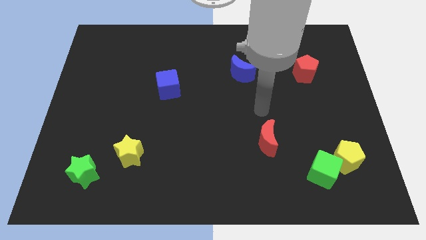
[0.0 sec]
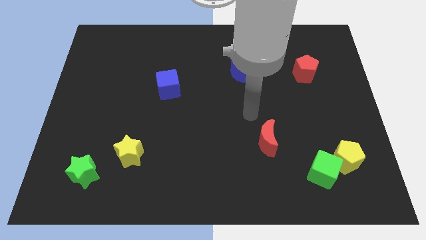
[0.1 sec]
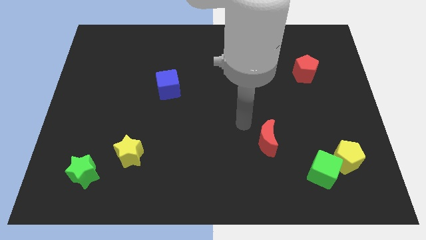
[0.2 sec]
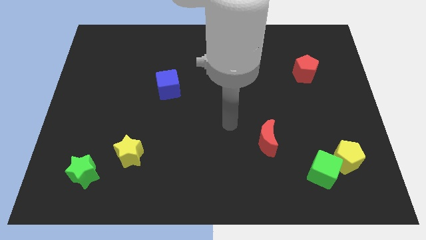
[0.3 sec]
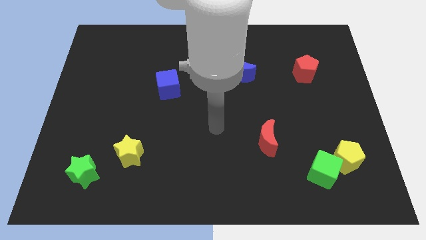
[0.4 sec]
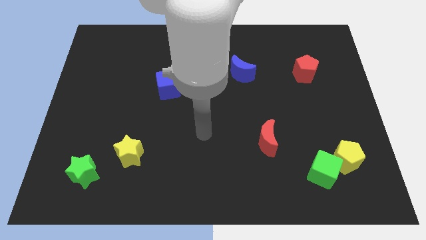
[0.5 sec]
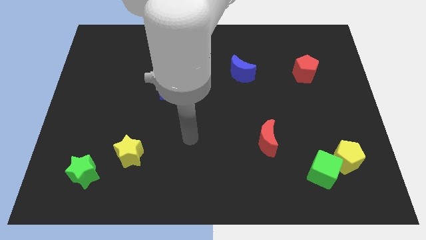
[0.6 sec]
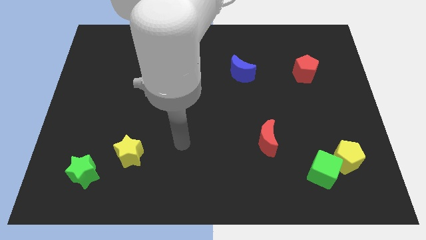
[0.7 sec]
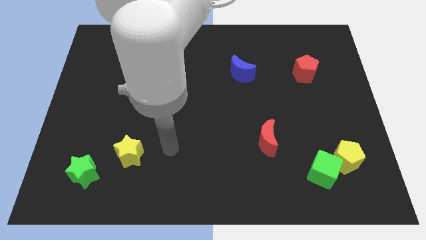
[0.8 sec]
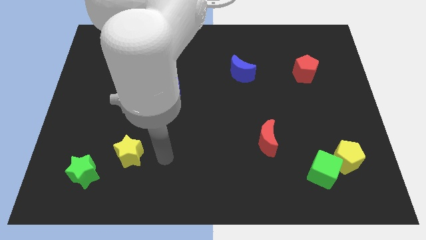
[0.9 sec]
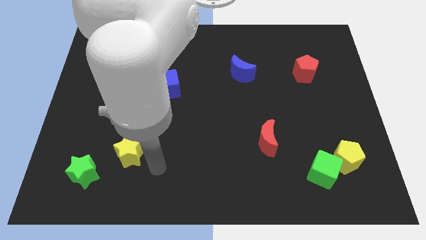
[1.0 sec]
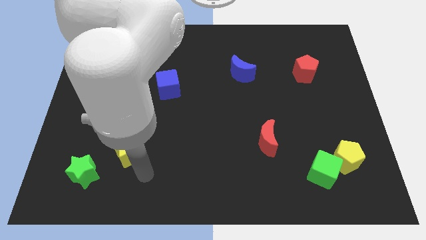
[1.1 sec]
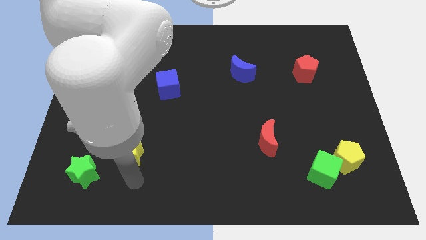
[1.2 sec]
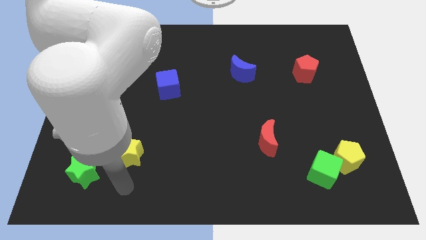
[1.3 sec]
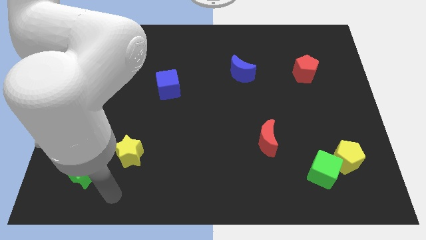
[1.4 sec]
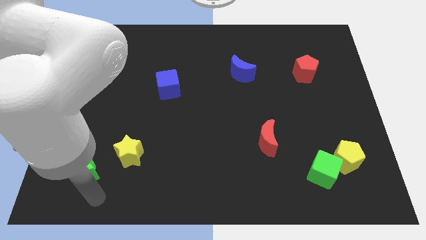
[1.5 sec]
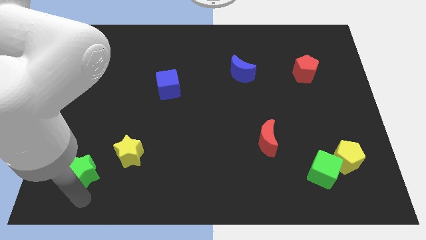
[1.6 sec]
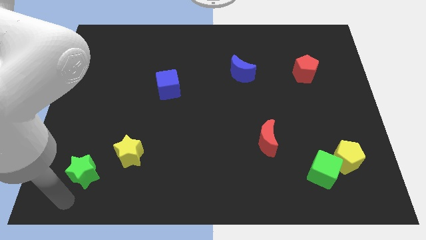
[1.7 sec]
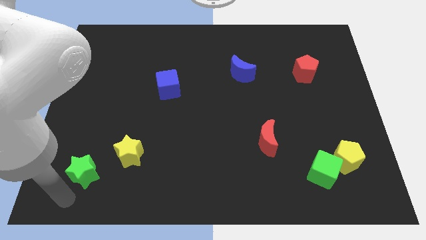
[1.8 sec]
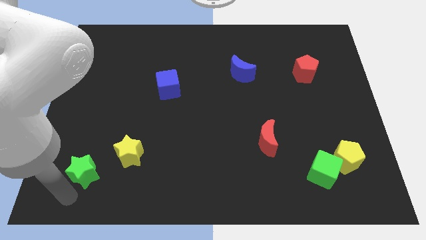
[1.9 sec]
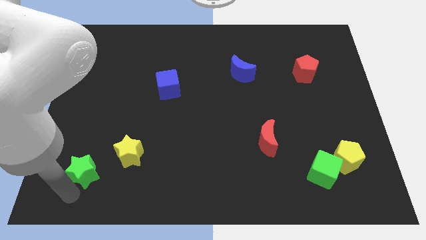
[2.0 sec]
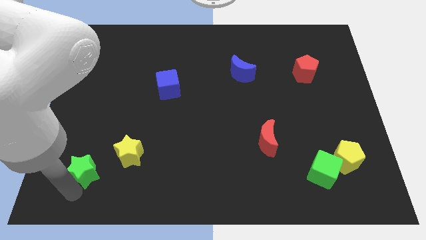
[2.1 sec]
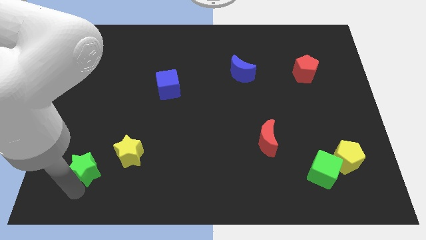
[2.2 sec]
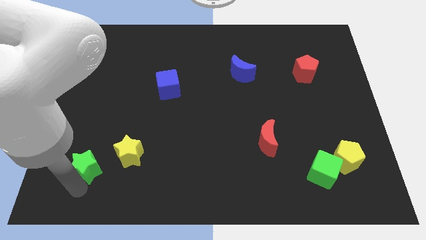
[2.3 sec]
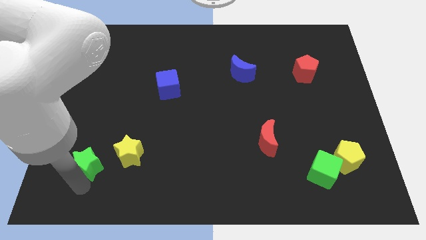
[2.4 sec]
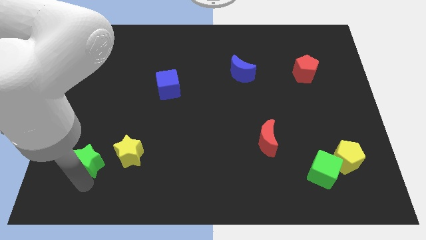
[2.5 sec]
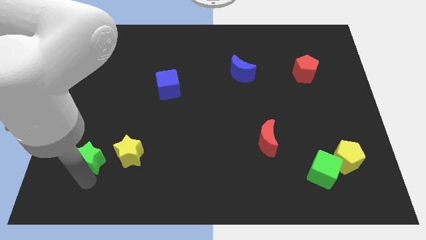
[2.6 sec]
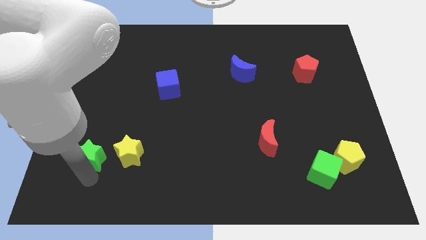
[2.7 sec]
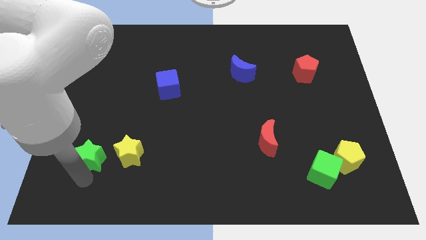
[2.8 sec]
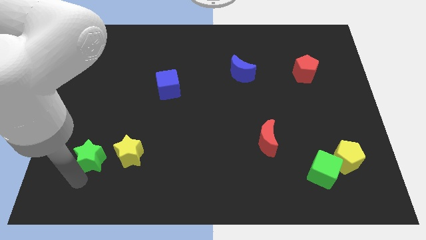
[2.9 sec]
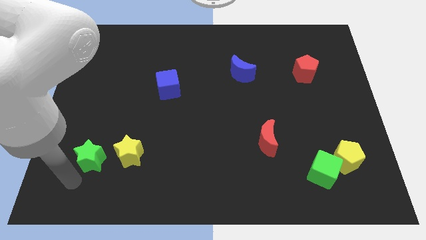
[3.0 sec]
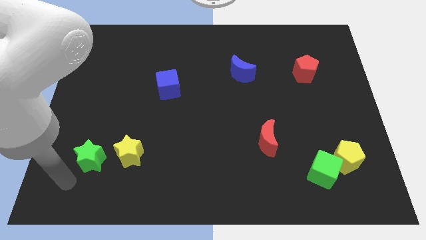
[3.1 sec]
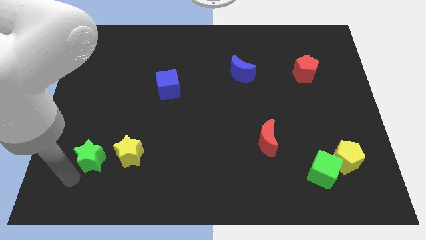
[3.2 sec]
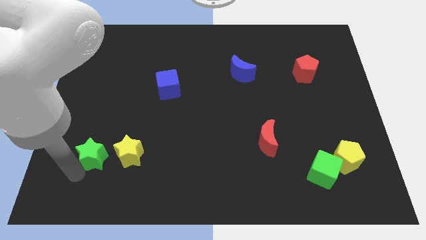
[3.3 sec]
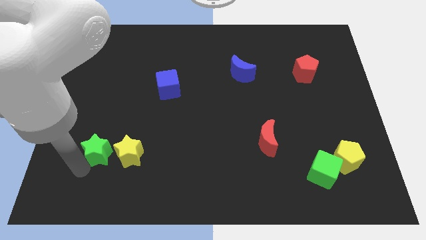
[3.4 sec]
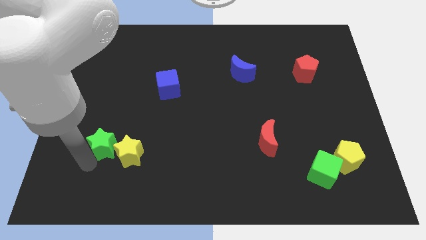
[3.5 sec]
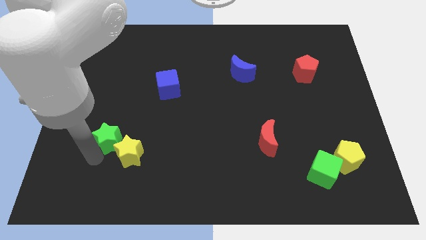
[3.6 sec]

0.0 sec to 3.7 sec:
move the green star up and right diagonally a little

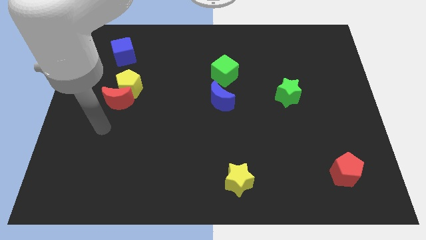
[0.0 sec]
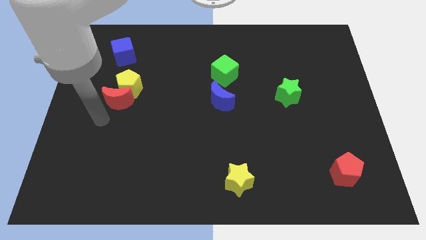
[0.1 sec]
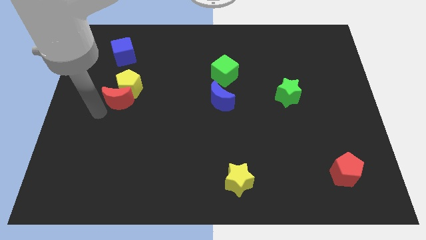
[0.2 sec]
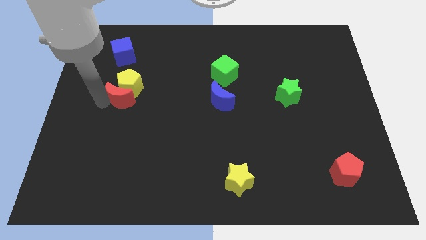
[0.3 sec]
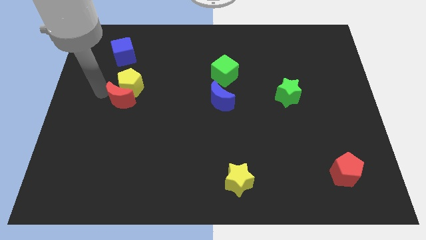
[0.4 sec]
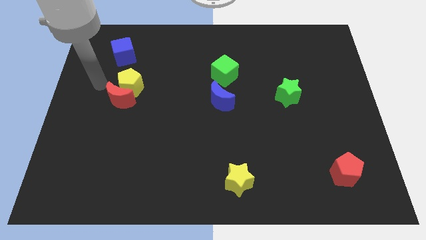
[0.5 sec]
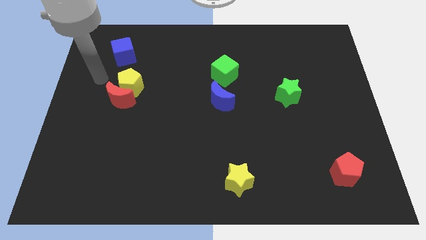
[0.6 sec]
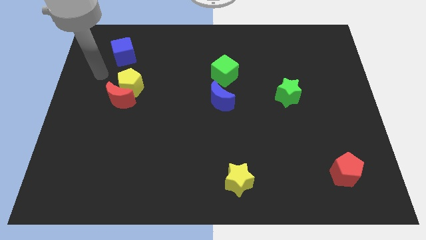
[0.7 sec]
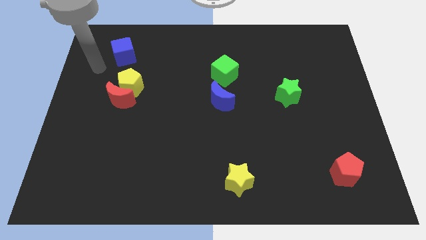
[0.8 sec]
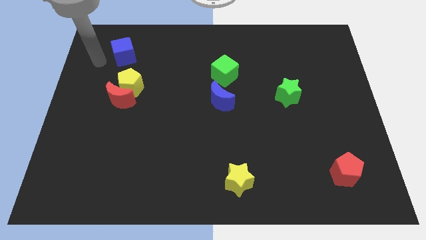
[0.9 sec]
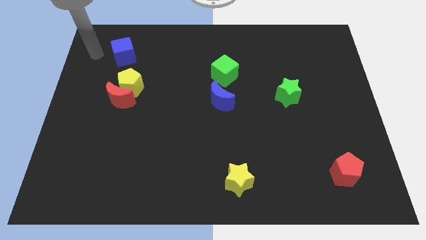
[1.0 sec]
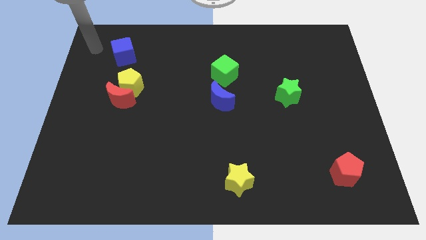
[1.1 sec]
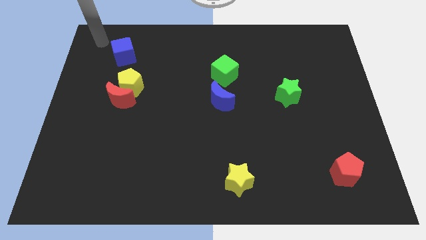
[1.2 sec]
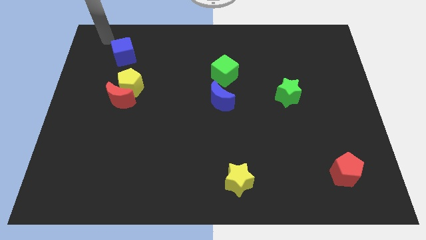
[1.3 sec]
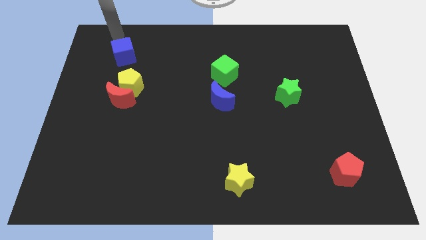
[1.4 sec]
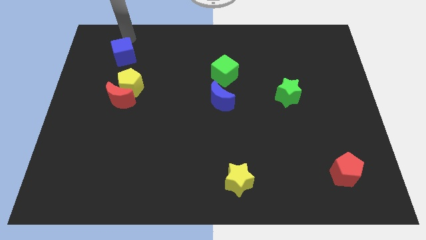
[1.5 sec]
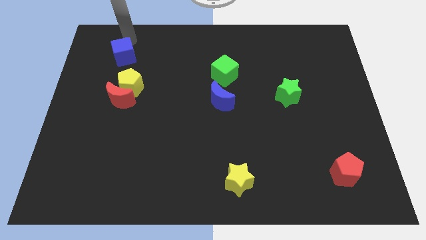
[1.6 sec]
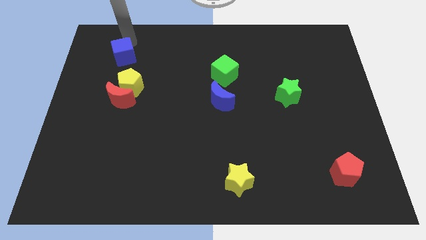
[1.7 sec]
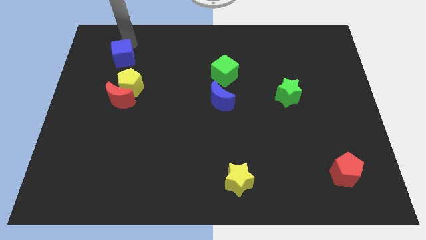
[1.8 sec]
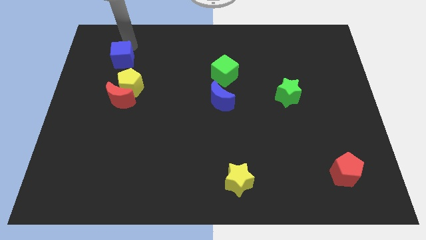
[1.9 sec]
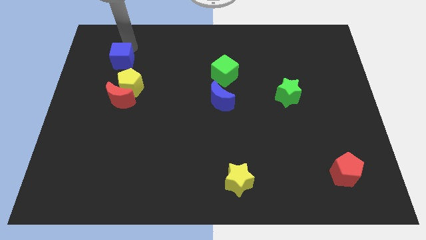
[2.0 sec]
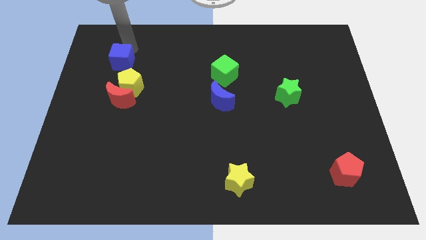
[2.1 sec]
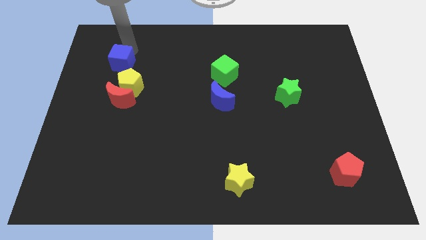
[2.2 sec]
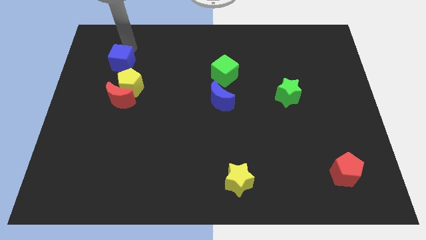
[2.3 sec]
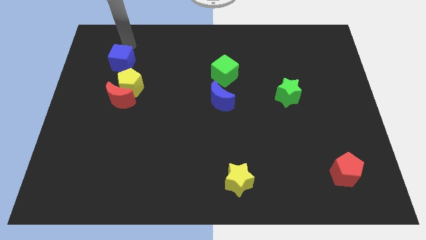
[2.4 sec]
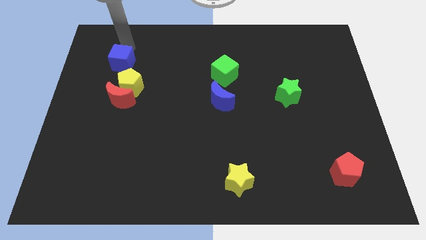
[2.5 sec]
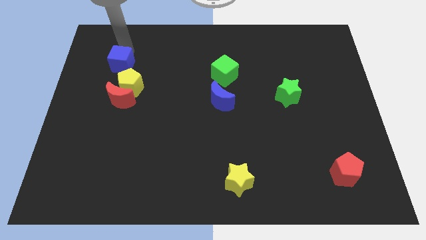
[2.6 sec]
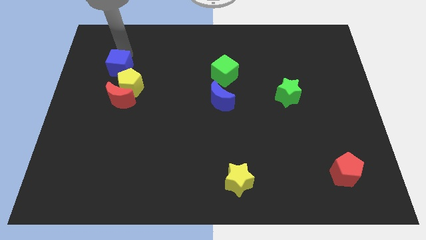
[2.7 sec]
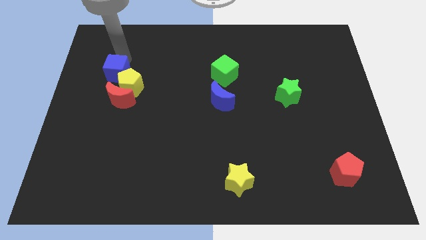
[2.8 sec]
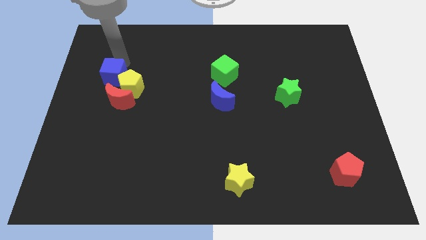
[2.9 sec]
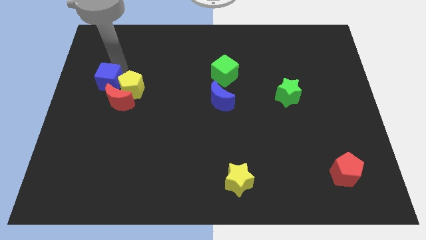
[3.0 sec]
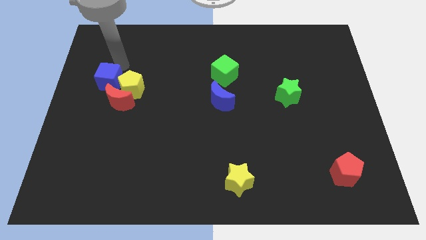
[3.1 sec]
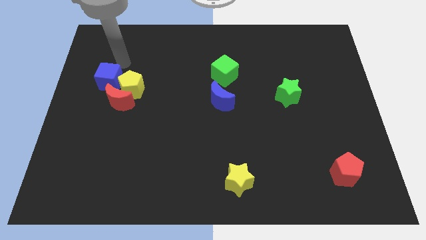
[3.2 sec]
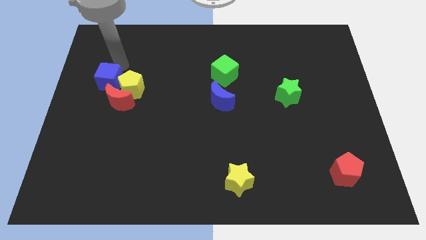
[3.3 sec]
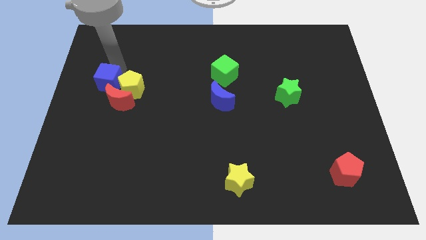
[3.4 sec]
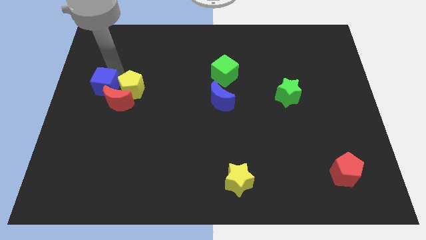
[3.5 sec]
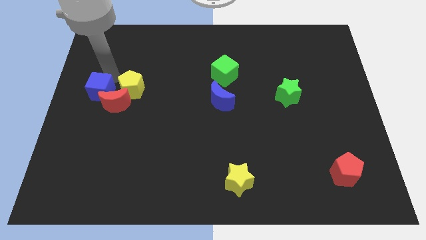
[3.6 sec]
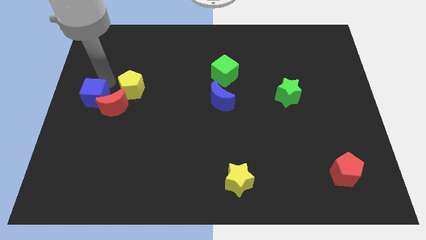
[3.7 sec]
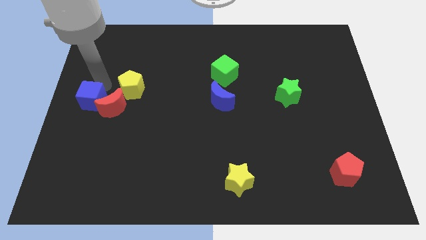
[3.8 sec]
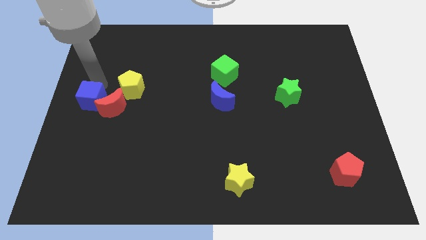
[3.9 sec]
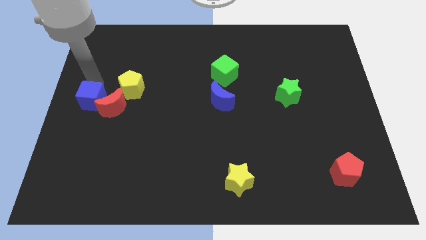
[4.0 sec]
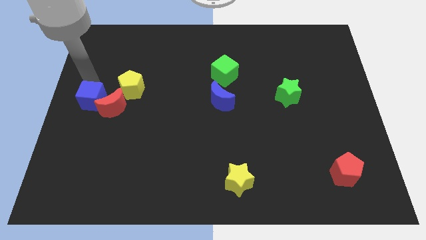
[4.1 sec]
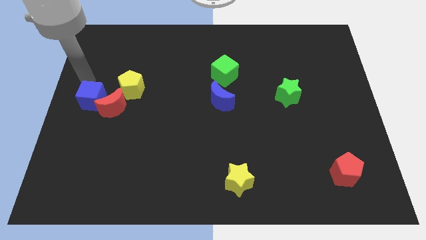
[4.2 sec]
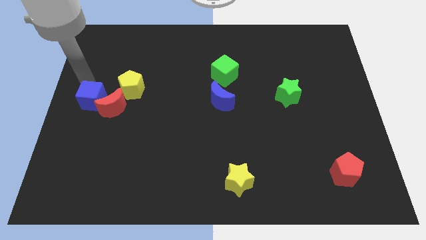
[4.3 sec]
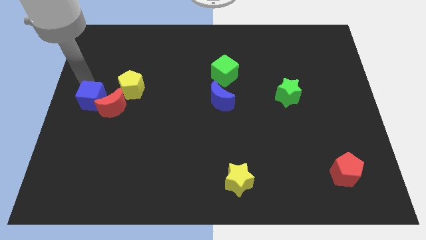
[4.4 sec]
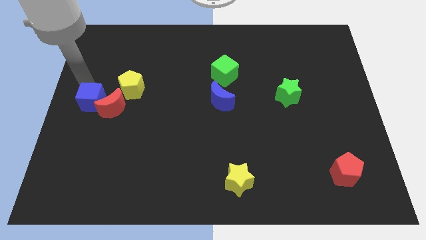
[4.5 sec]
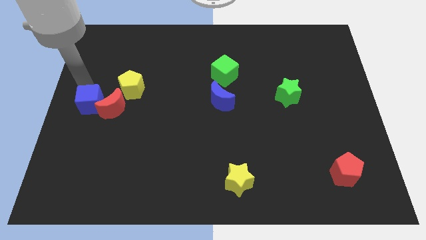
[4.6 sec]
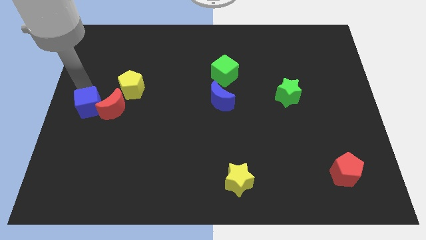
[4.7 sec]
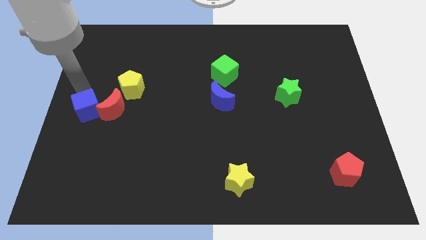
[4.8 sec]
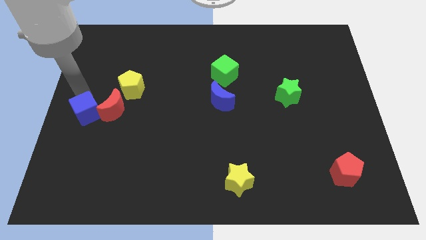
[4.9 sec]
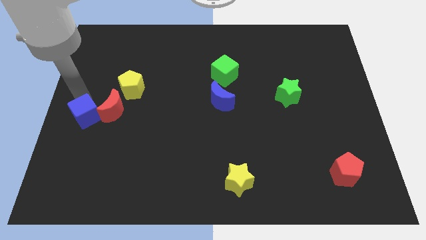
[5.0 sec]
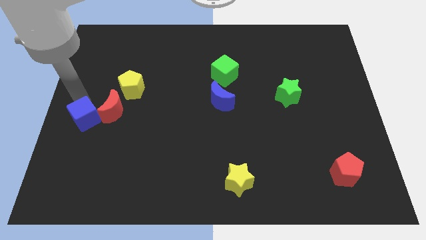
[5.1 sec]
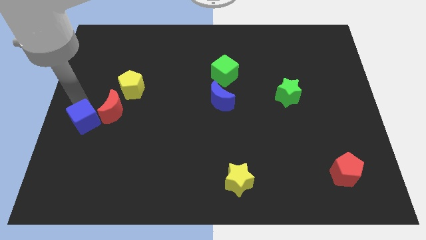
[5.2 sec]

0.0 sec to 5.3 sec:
move the blue cube down
